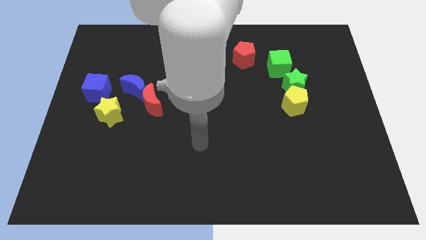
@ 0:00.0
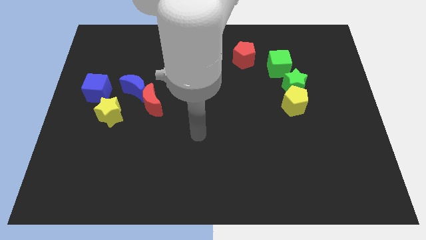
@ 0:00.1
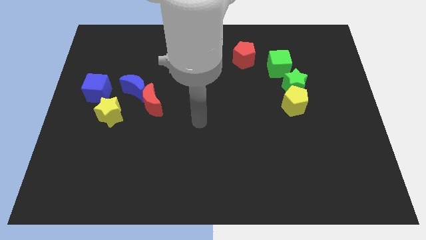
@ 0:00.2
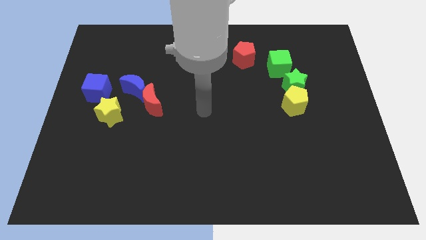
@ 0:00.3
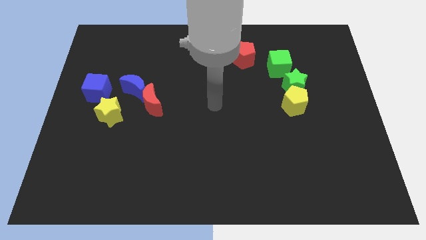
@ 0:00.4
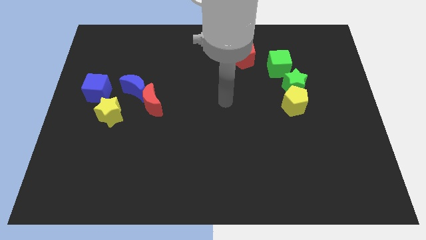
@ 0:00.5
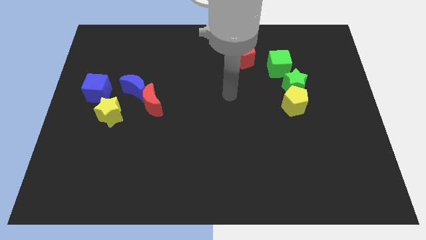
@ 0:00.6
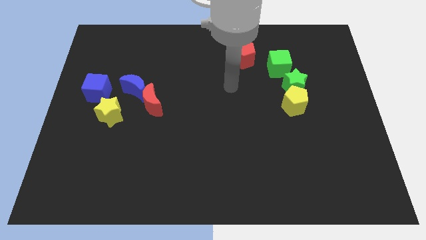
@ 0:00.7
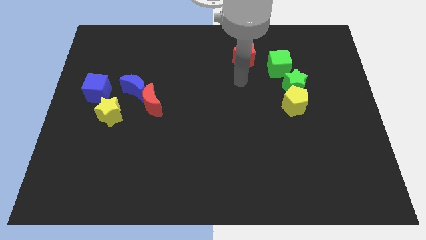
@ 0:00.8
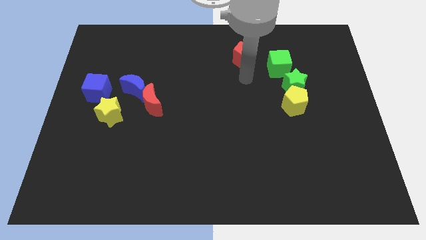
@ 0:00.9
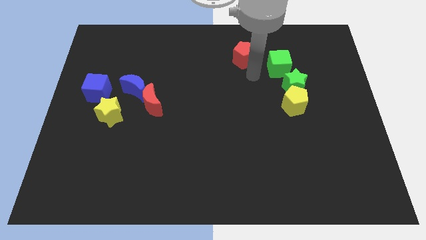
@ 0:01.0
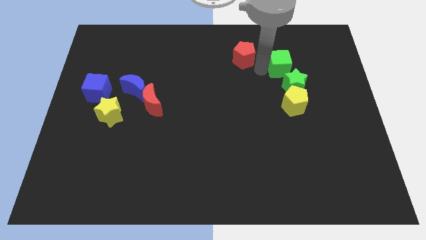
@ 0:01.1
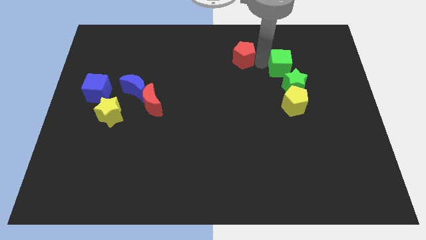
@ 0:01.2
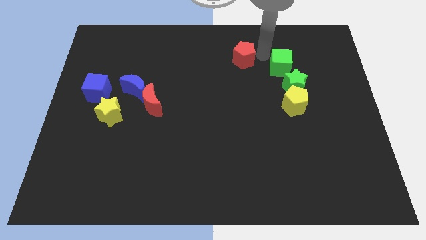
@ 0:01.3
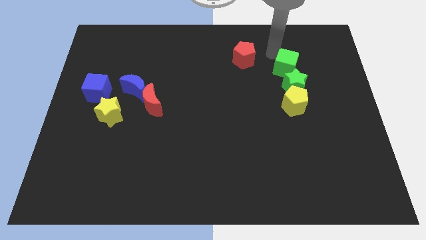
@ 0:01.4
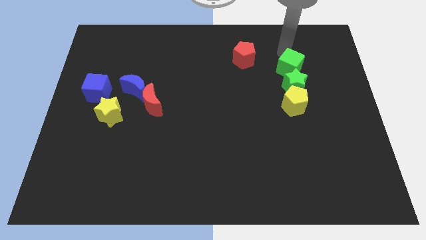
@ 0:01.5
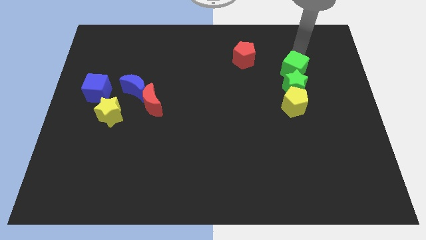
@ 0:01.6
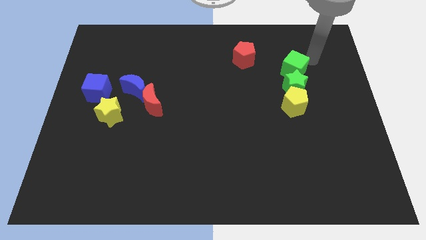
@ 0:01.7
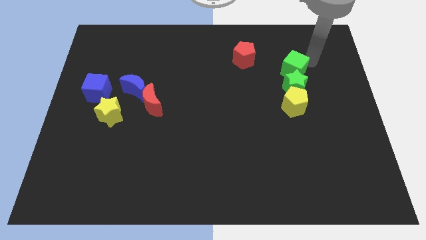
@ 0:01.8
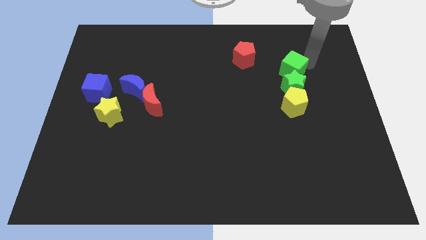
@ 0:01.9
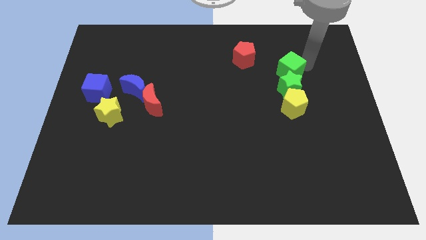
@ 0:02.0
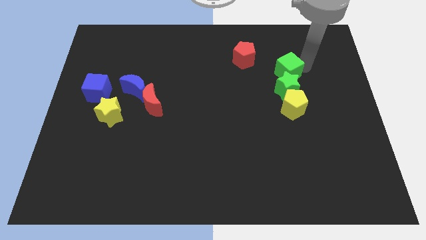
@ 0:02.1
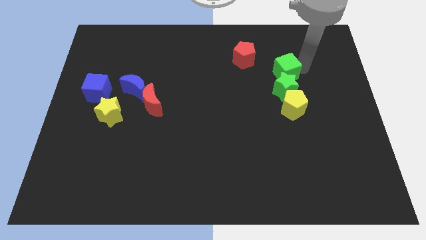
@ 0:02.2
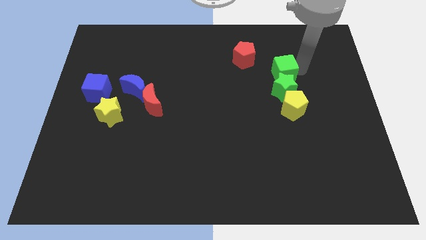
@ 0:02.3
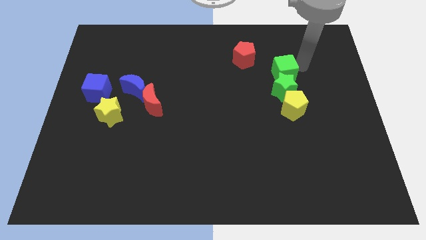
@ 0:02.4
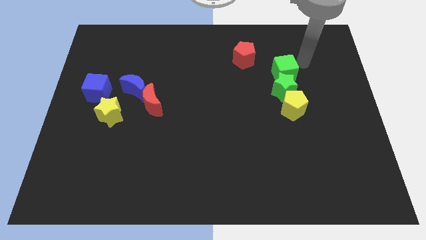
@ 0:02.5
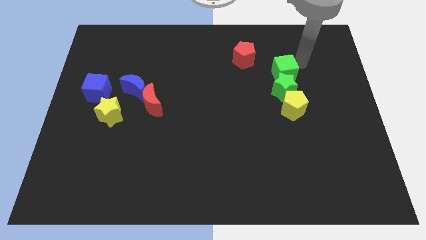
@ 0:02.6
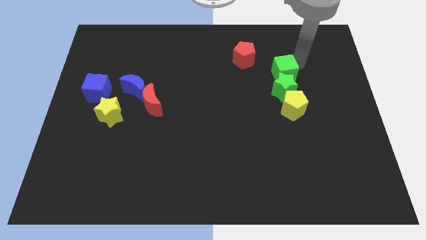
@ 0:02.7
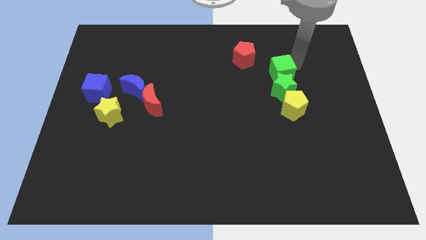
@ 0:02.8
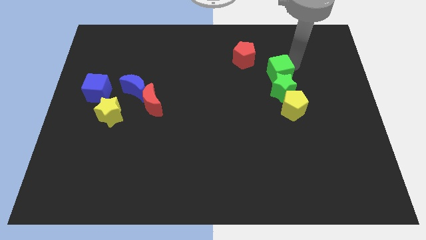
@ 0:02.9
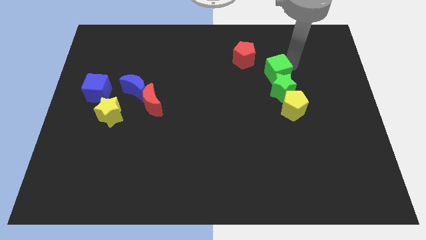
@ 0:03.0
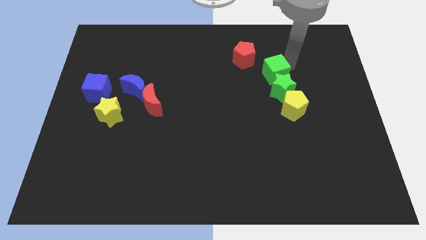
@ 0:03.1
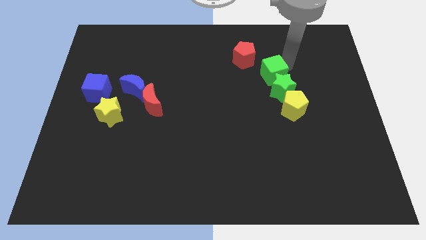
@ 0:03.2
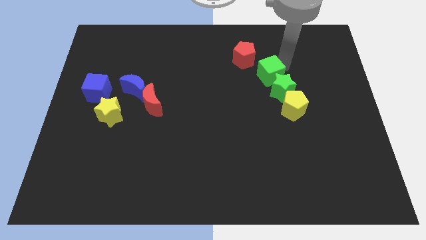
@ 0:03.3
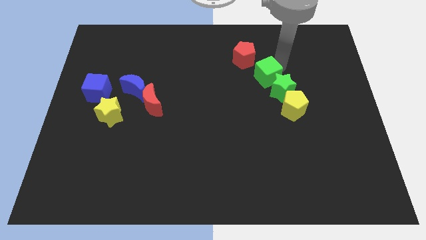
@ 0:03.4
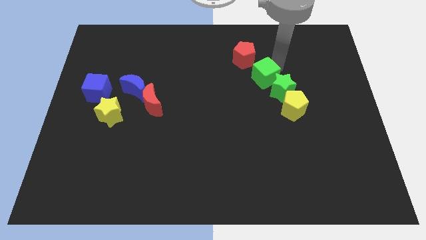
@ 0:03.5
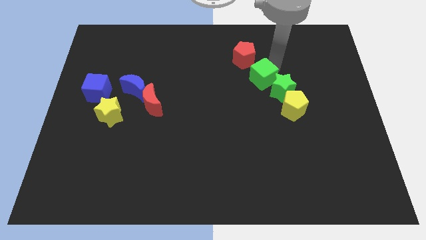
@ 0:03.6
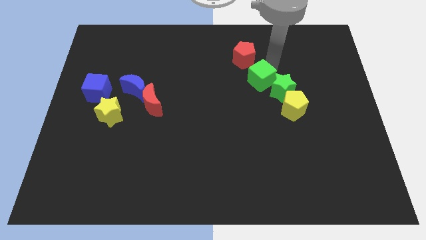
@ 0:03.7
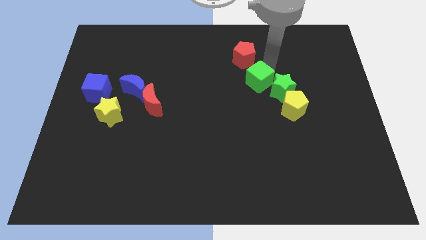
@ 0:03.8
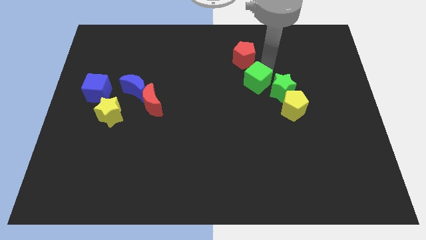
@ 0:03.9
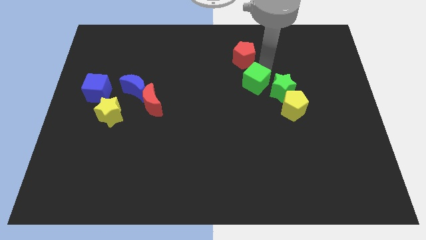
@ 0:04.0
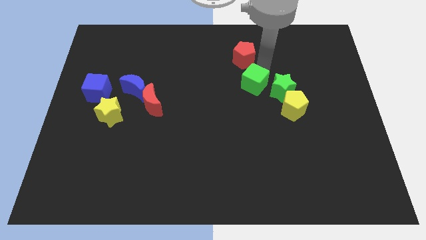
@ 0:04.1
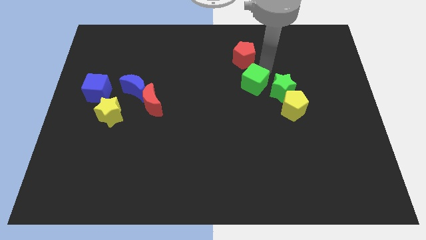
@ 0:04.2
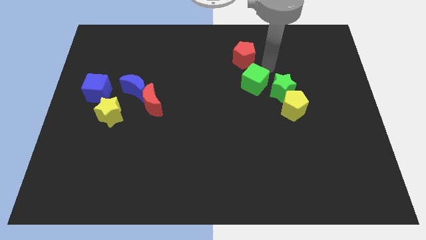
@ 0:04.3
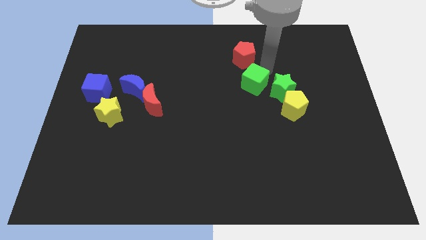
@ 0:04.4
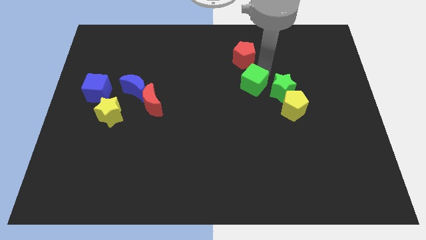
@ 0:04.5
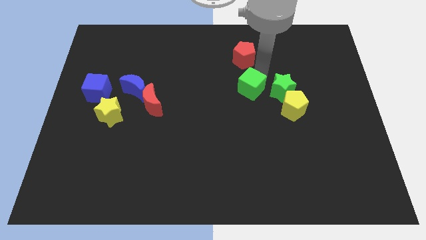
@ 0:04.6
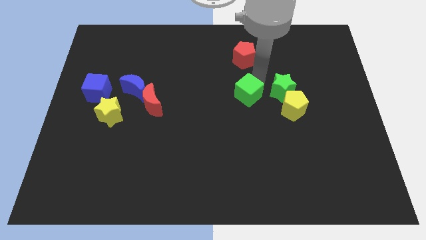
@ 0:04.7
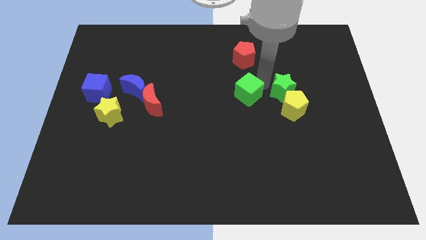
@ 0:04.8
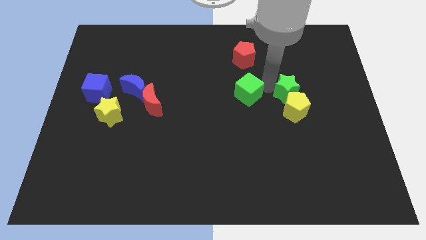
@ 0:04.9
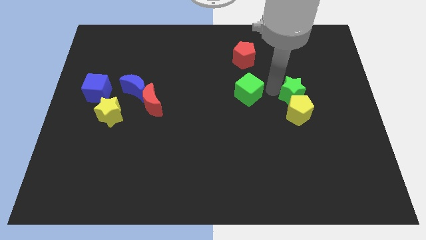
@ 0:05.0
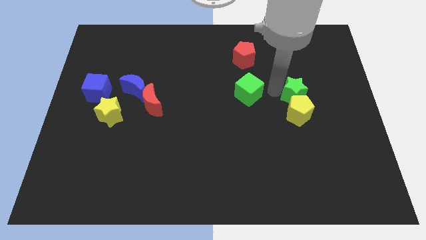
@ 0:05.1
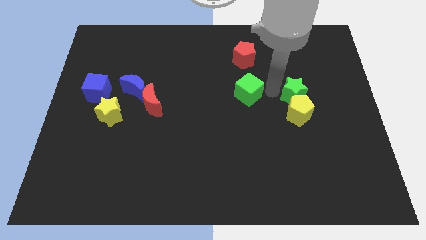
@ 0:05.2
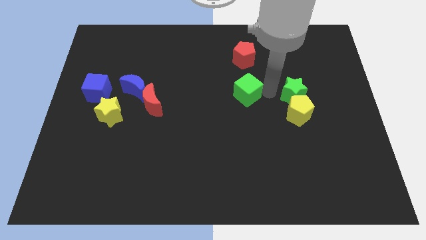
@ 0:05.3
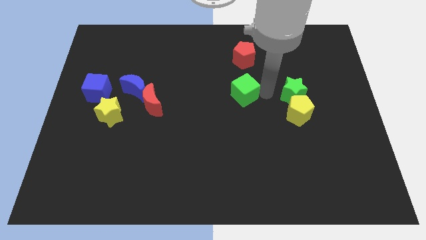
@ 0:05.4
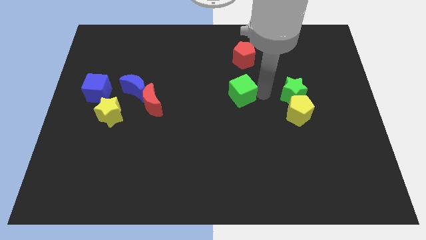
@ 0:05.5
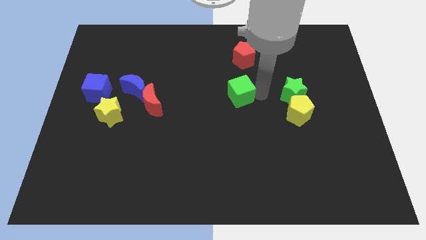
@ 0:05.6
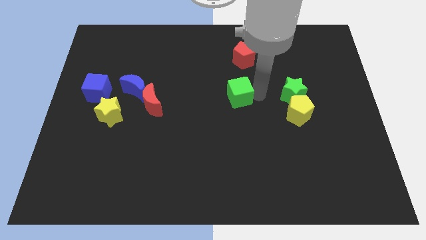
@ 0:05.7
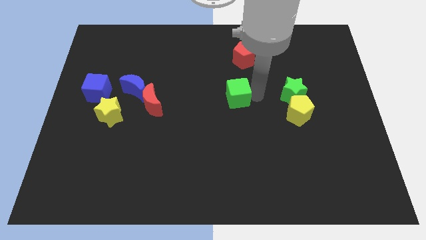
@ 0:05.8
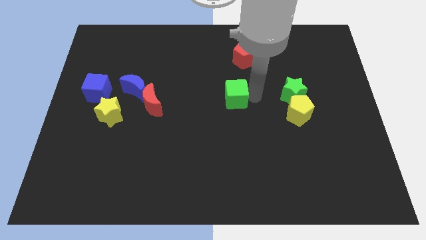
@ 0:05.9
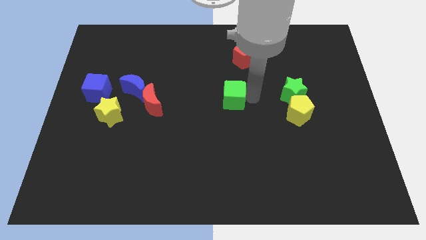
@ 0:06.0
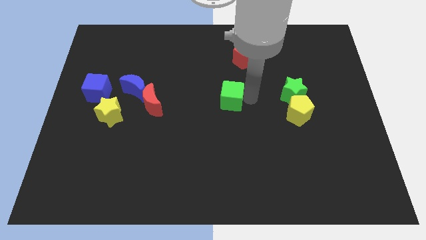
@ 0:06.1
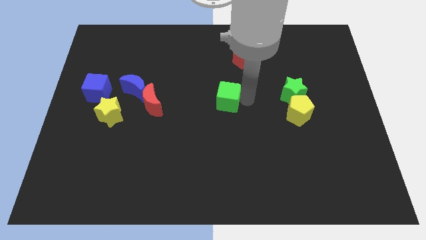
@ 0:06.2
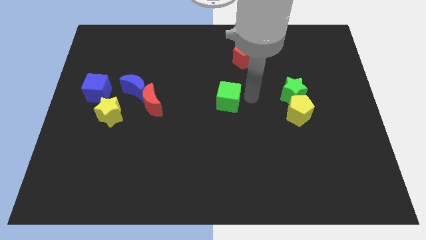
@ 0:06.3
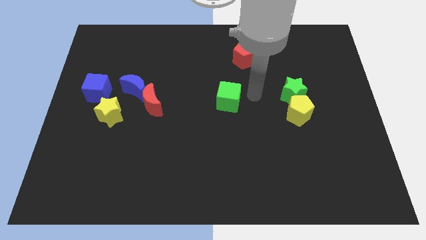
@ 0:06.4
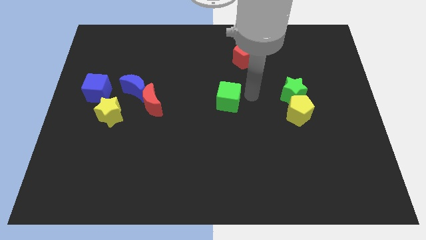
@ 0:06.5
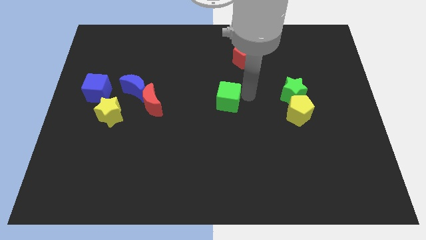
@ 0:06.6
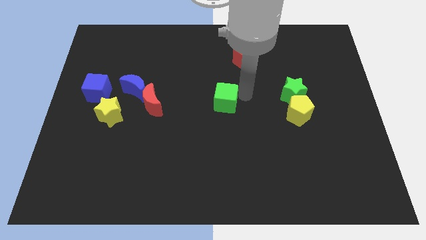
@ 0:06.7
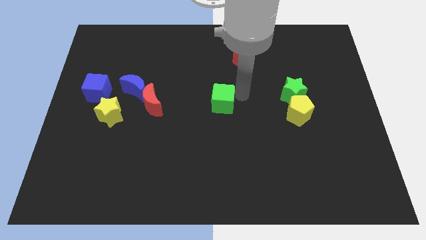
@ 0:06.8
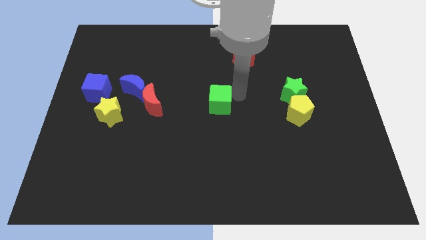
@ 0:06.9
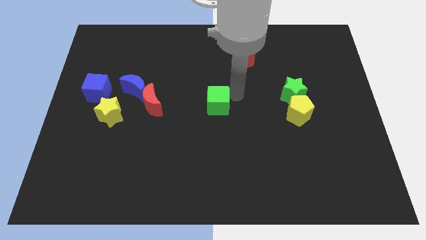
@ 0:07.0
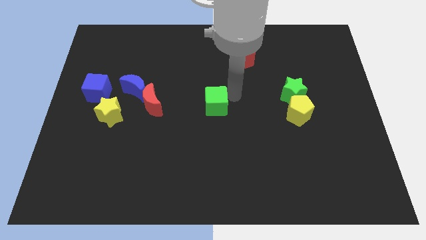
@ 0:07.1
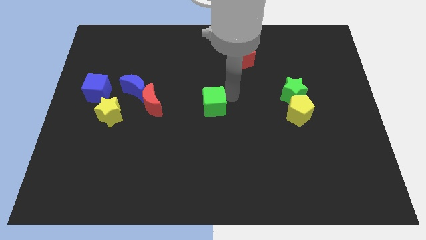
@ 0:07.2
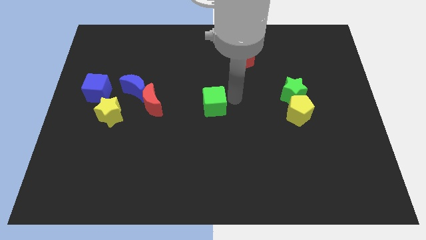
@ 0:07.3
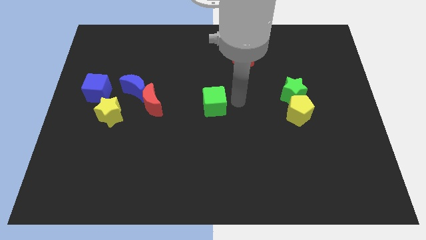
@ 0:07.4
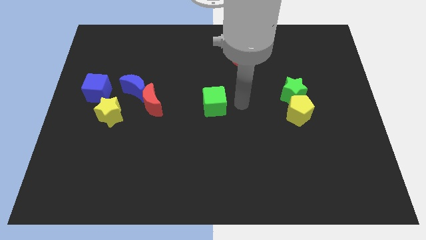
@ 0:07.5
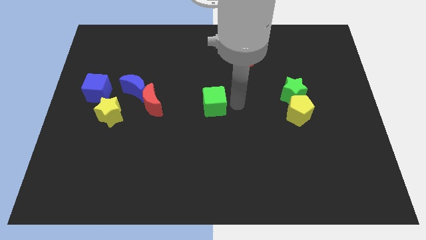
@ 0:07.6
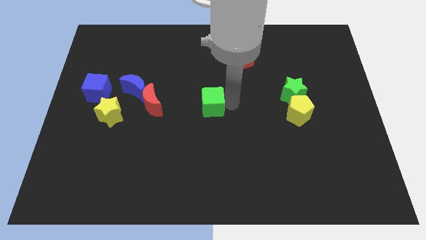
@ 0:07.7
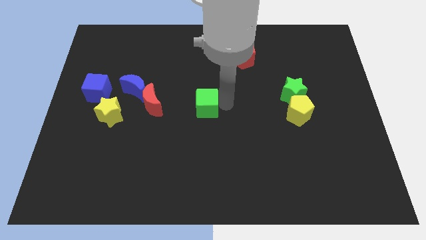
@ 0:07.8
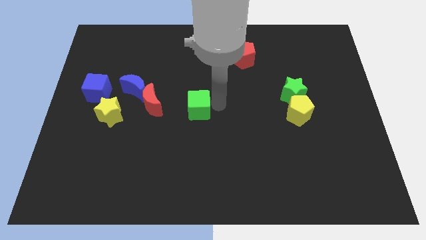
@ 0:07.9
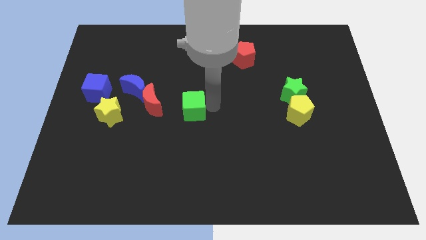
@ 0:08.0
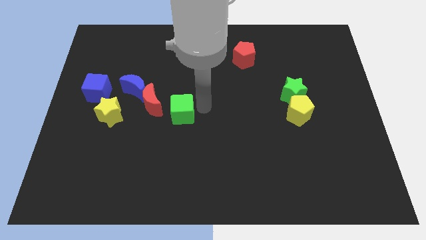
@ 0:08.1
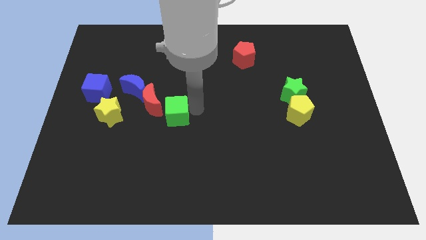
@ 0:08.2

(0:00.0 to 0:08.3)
move the green cube right of the yellow star
